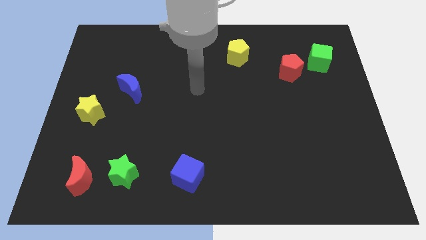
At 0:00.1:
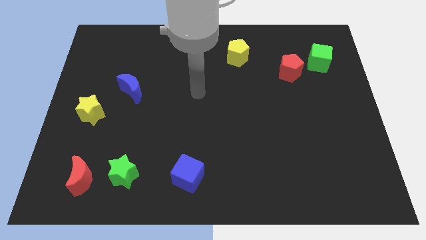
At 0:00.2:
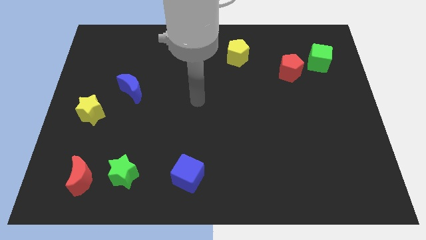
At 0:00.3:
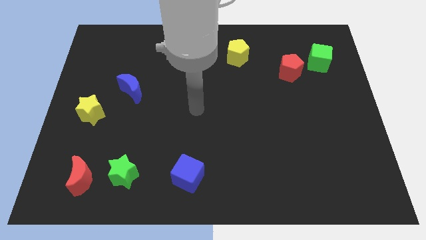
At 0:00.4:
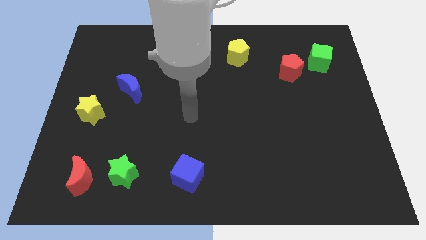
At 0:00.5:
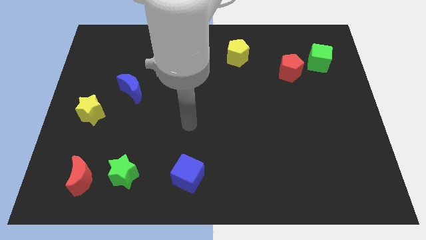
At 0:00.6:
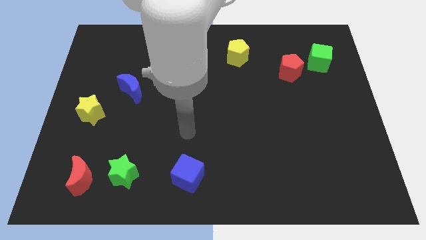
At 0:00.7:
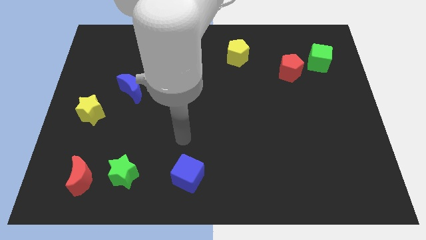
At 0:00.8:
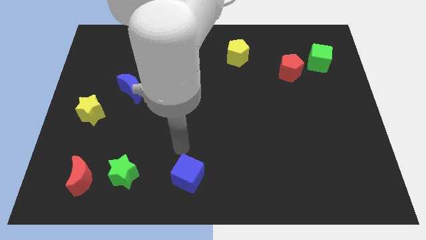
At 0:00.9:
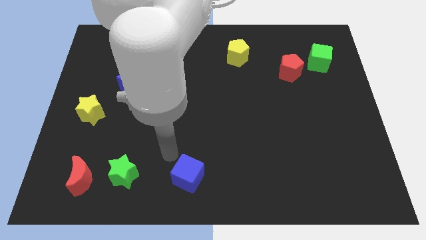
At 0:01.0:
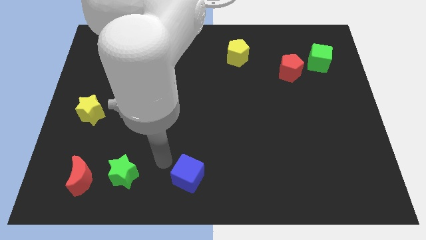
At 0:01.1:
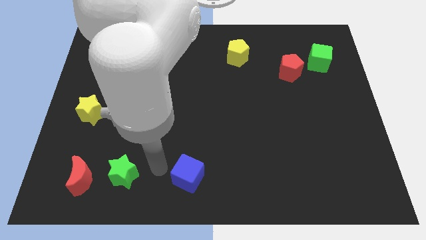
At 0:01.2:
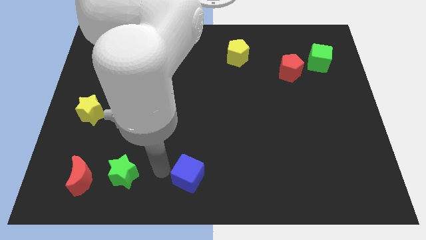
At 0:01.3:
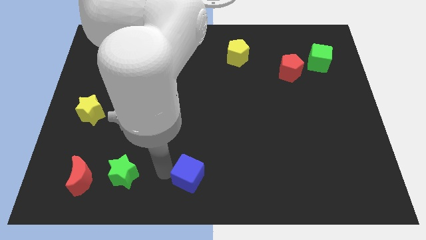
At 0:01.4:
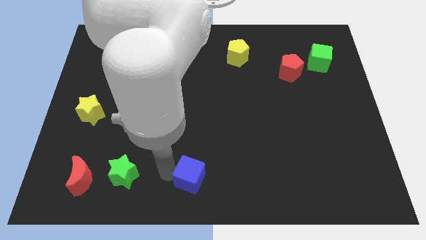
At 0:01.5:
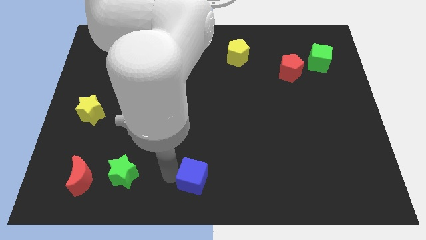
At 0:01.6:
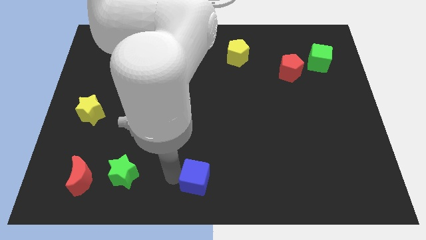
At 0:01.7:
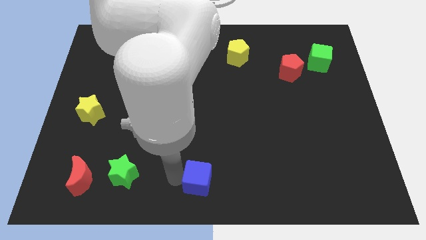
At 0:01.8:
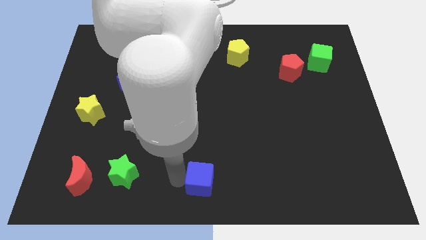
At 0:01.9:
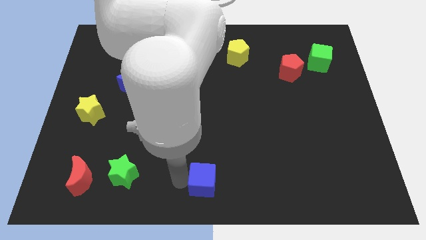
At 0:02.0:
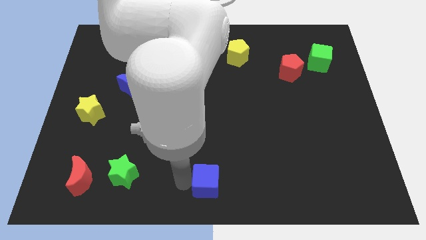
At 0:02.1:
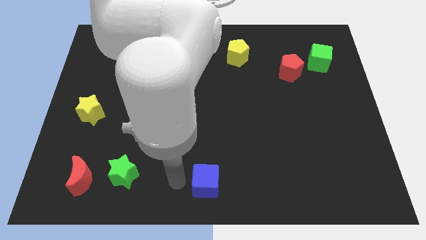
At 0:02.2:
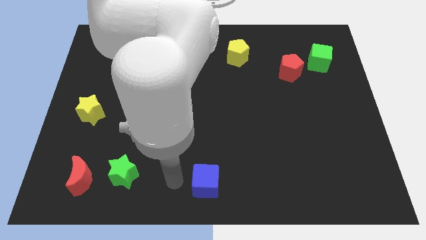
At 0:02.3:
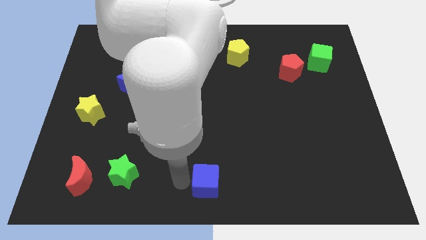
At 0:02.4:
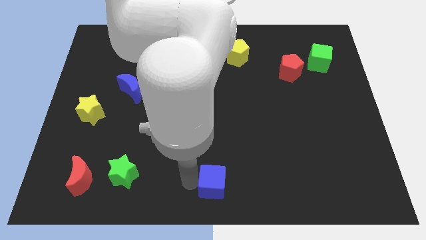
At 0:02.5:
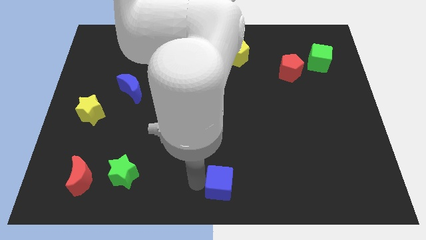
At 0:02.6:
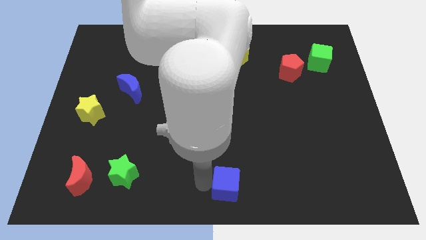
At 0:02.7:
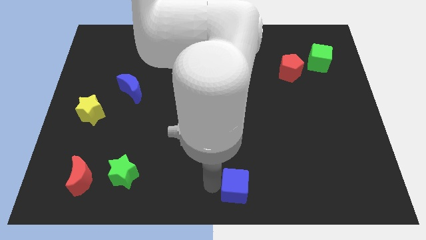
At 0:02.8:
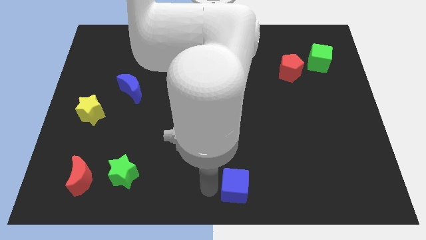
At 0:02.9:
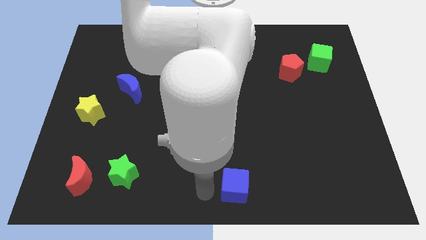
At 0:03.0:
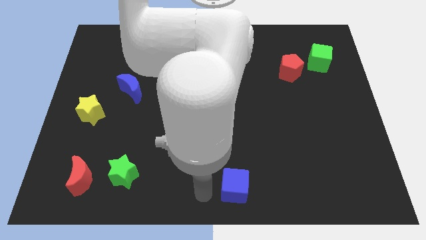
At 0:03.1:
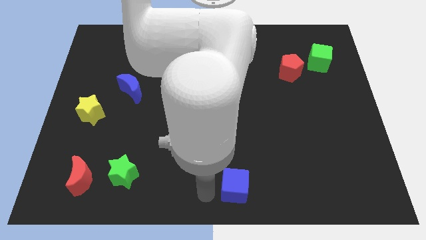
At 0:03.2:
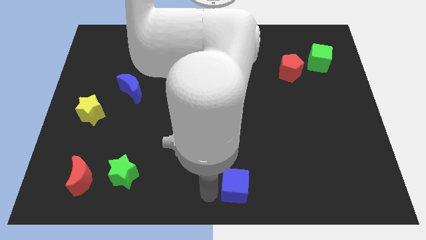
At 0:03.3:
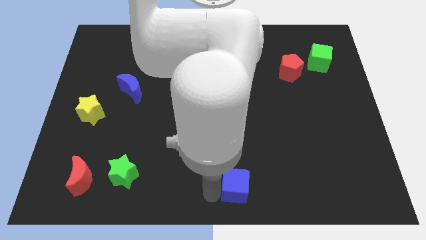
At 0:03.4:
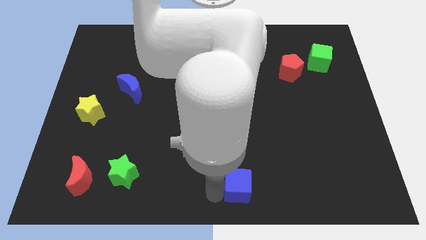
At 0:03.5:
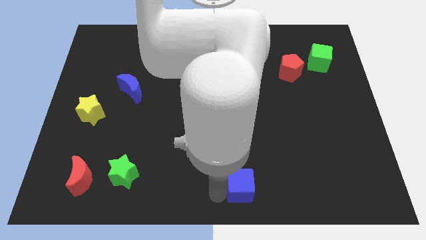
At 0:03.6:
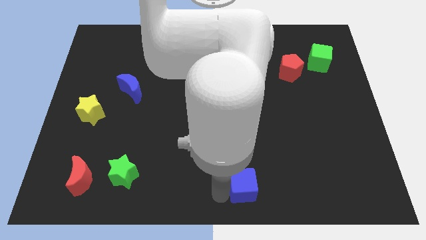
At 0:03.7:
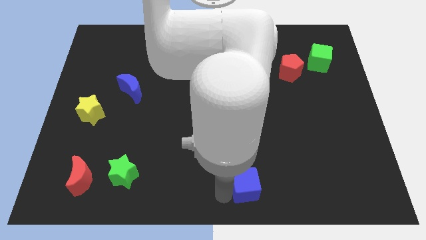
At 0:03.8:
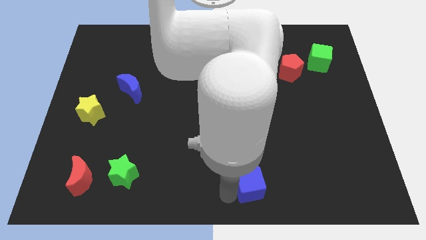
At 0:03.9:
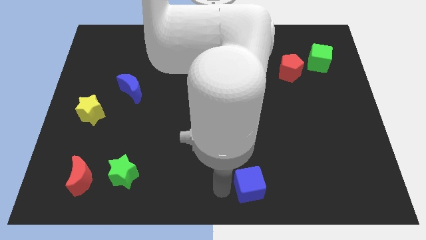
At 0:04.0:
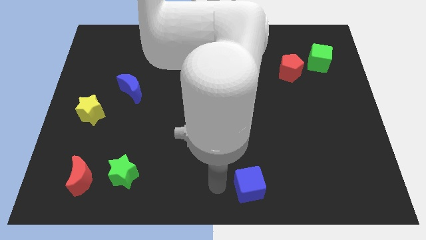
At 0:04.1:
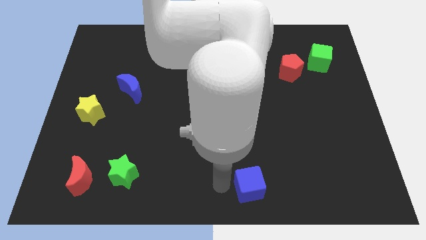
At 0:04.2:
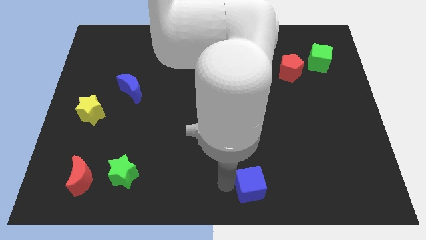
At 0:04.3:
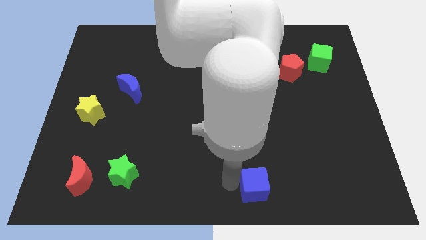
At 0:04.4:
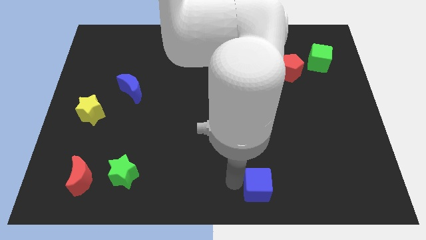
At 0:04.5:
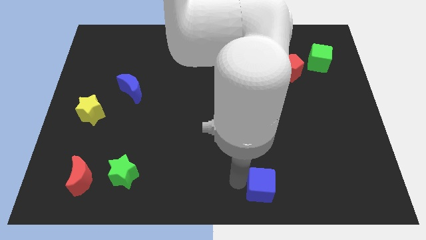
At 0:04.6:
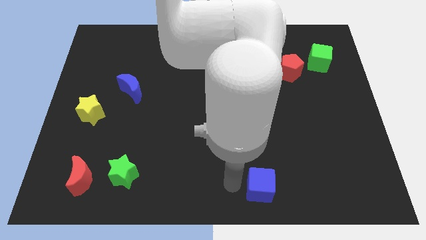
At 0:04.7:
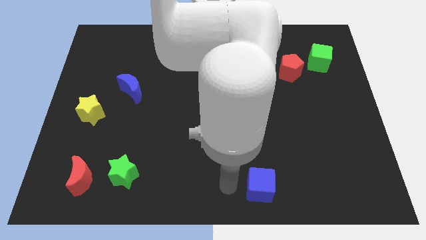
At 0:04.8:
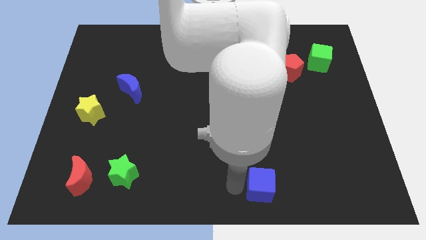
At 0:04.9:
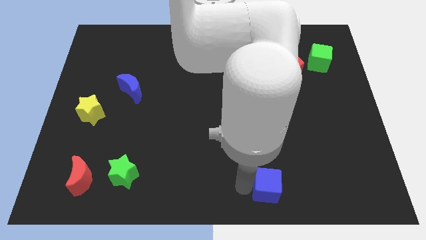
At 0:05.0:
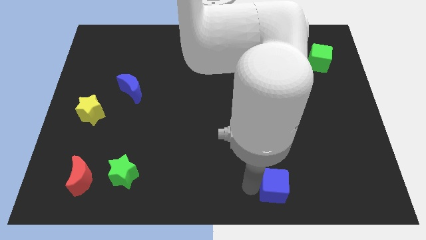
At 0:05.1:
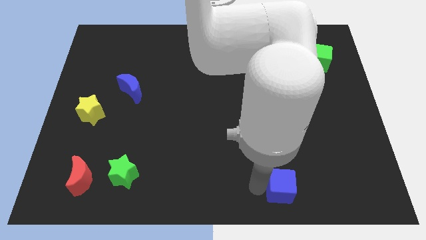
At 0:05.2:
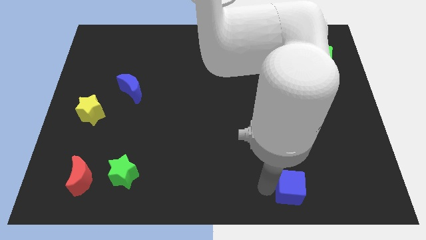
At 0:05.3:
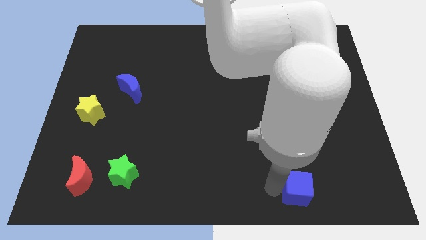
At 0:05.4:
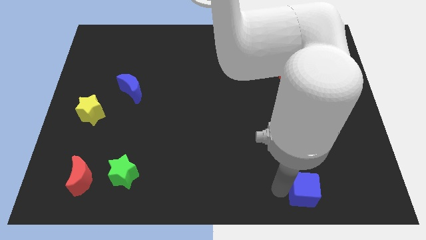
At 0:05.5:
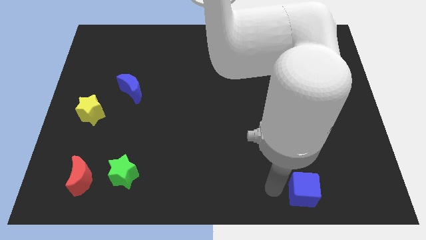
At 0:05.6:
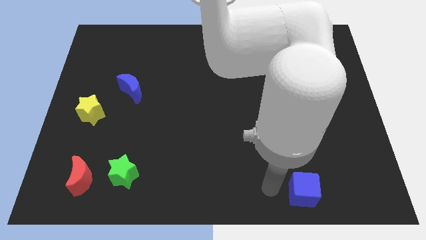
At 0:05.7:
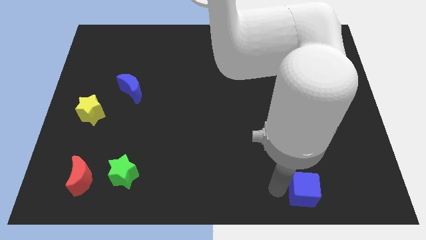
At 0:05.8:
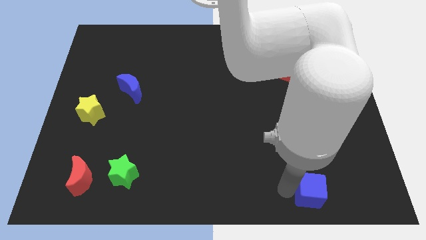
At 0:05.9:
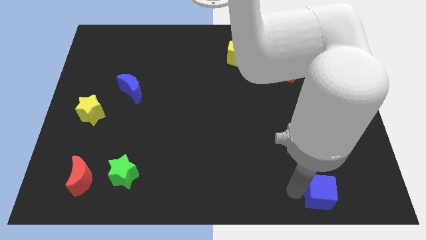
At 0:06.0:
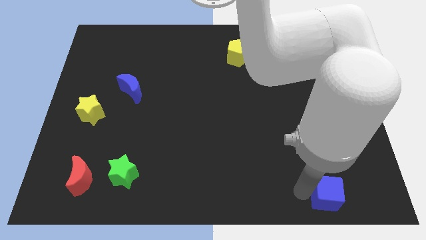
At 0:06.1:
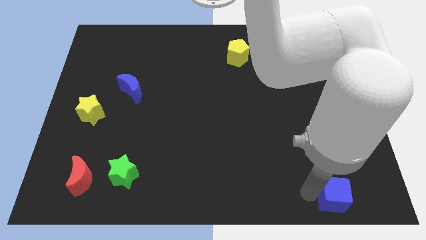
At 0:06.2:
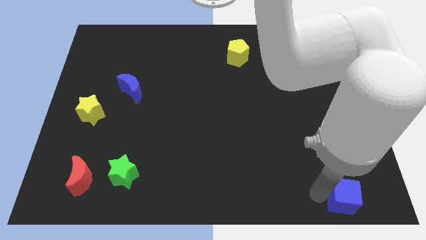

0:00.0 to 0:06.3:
slide the blue cube to the bottom right of the board
